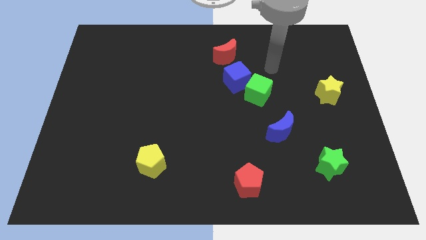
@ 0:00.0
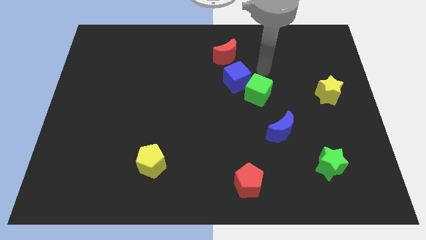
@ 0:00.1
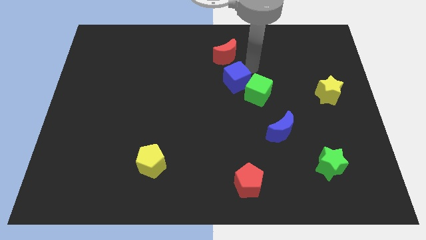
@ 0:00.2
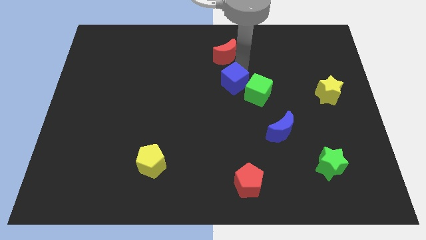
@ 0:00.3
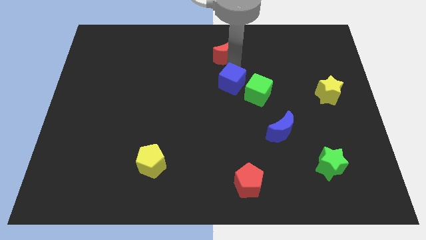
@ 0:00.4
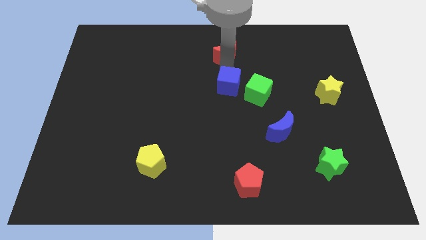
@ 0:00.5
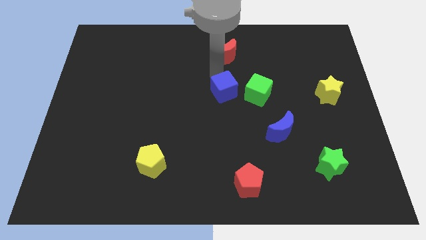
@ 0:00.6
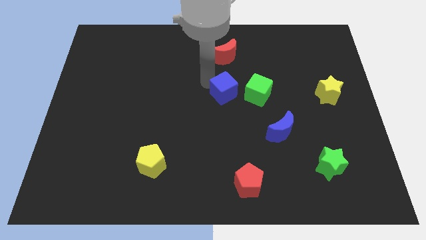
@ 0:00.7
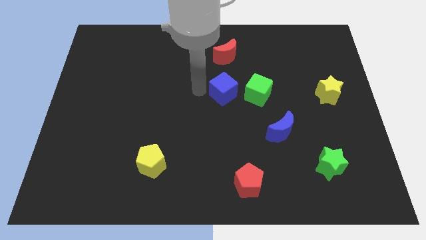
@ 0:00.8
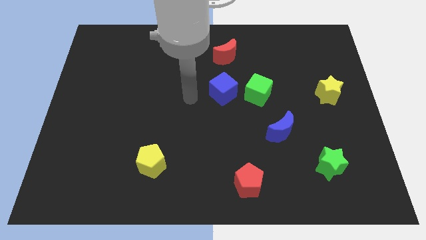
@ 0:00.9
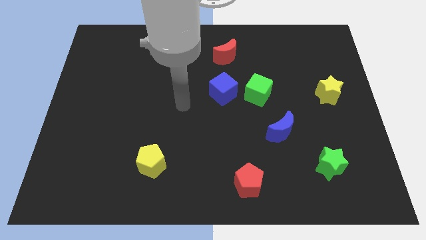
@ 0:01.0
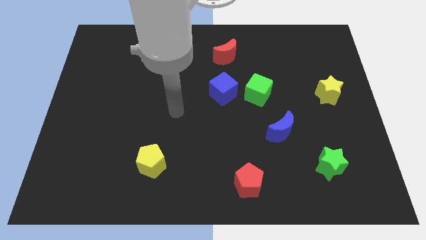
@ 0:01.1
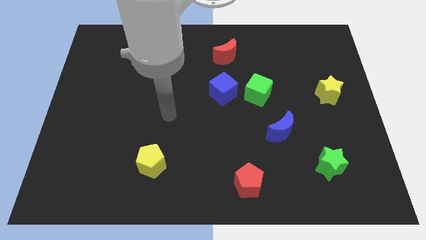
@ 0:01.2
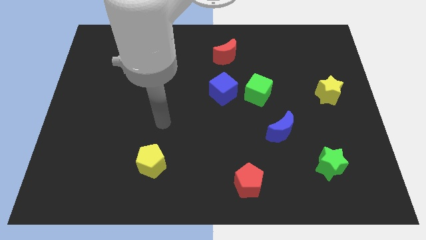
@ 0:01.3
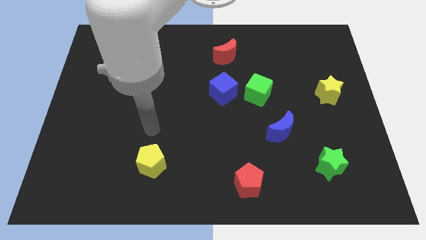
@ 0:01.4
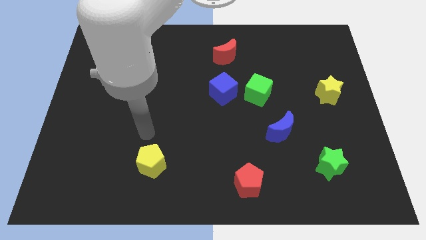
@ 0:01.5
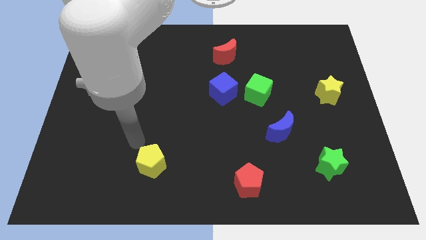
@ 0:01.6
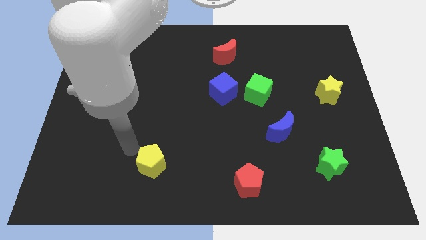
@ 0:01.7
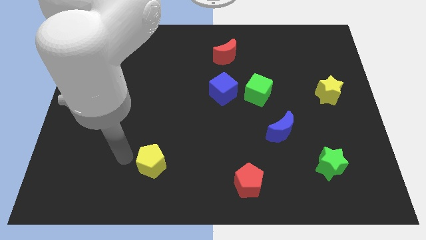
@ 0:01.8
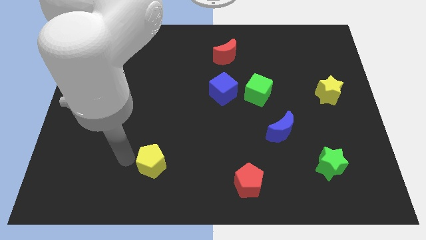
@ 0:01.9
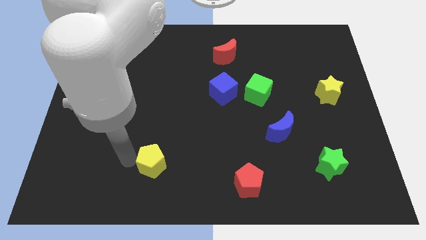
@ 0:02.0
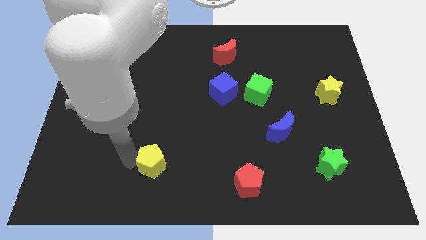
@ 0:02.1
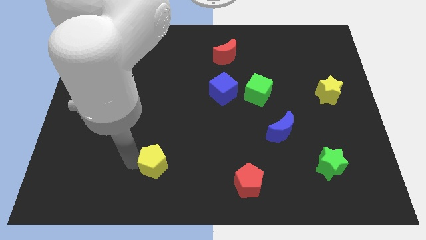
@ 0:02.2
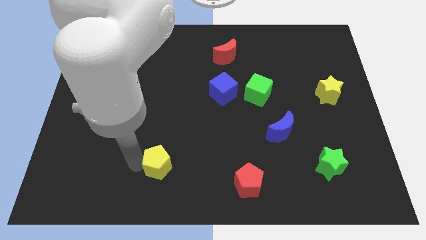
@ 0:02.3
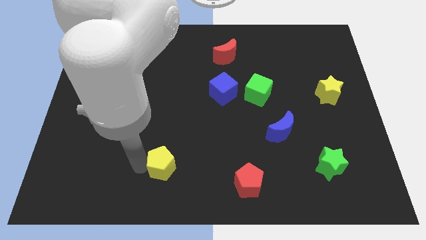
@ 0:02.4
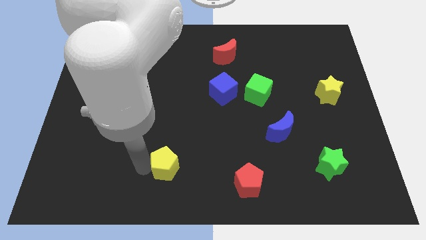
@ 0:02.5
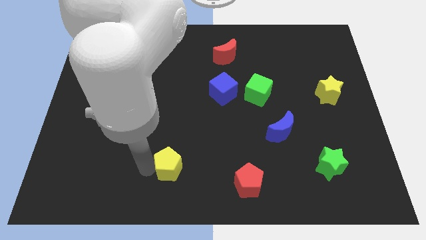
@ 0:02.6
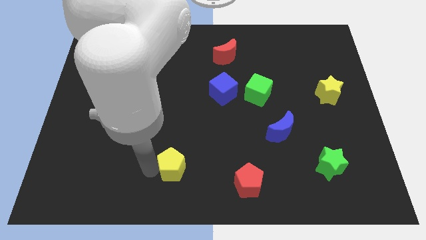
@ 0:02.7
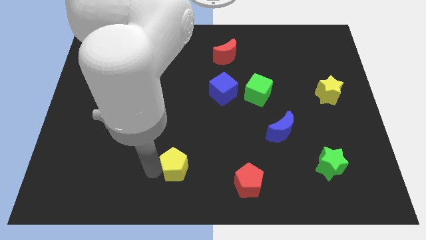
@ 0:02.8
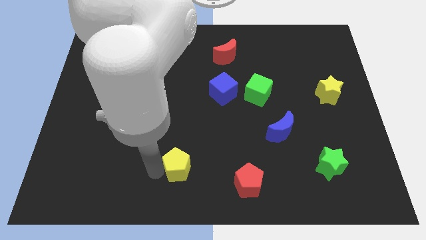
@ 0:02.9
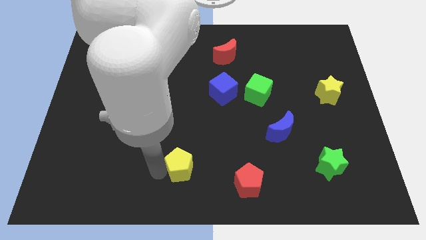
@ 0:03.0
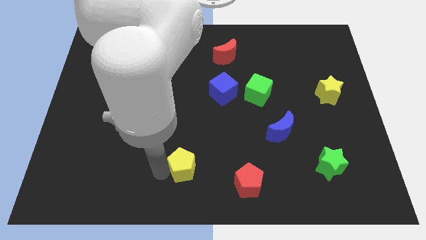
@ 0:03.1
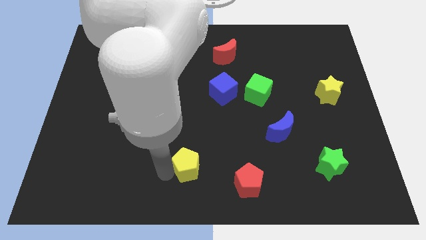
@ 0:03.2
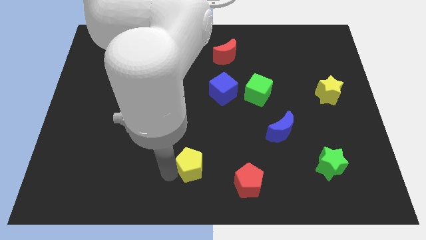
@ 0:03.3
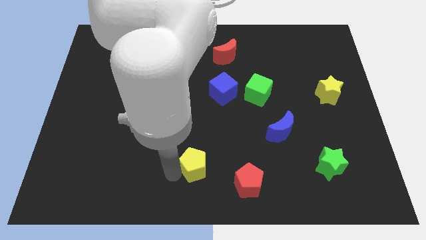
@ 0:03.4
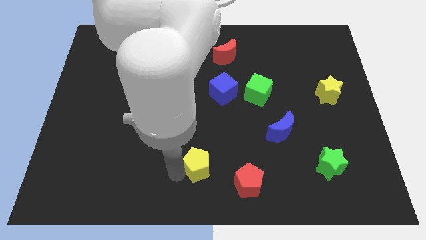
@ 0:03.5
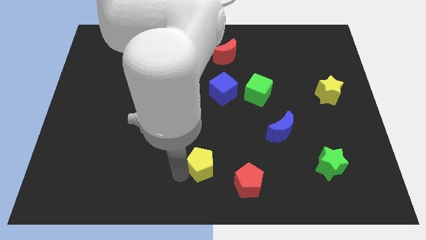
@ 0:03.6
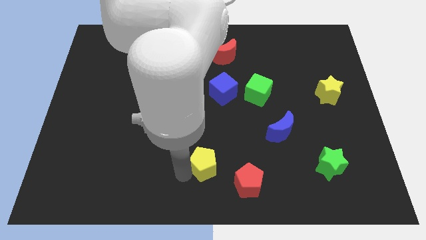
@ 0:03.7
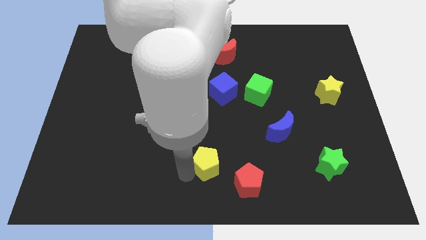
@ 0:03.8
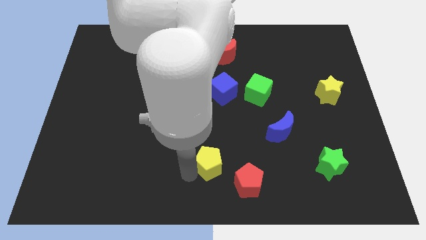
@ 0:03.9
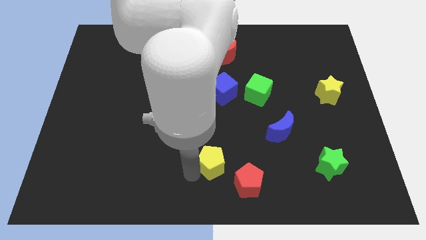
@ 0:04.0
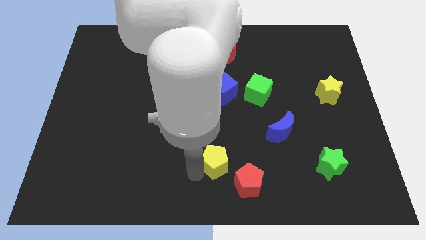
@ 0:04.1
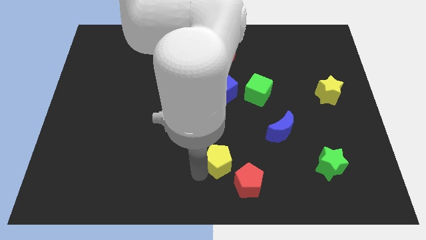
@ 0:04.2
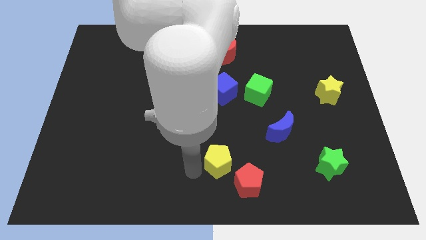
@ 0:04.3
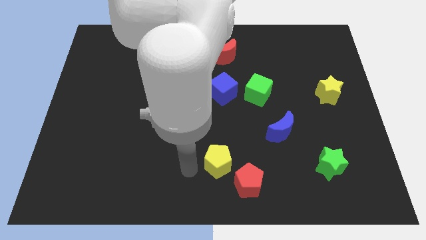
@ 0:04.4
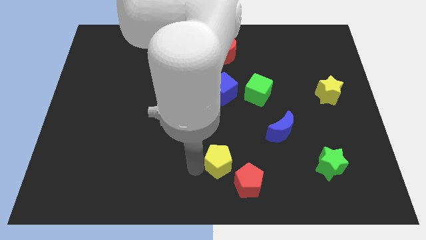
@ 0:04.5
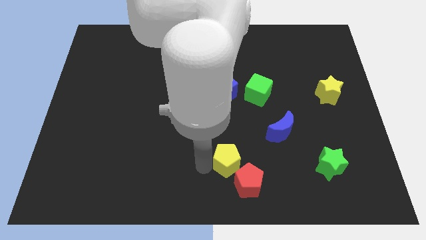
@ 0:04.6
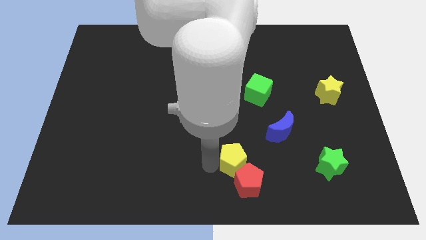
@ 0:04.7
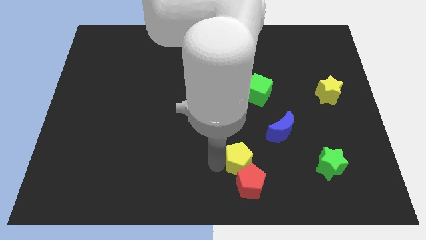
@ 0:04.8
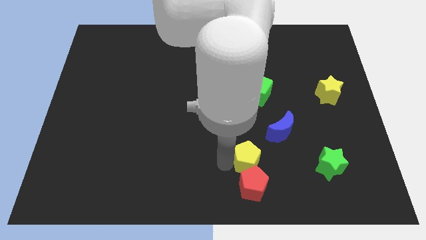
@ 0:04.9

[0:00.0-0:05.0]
move the yellow pentagon to the right

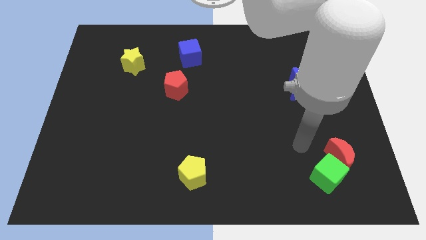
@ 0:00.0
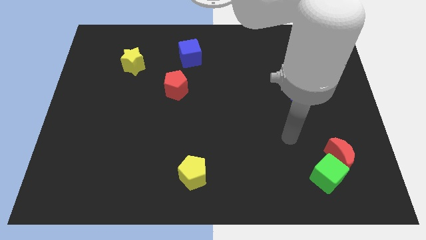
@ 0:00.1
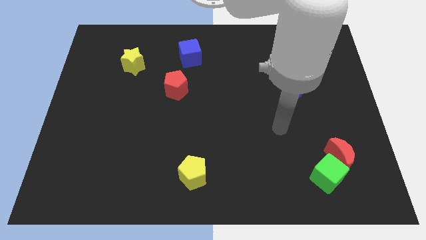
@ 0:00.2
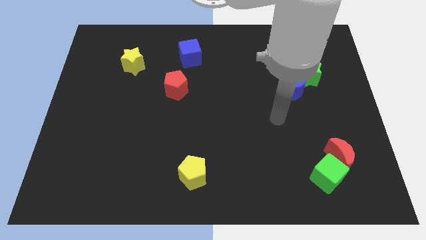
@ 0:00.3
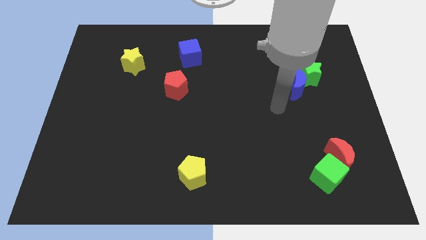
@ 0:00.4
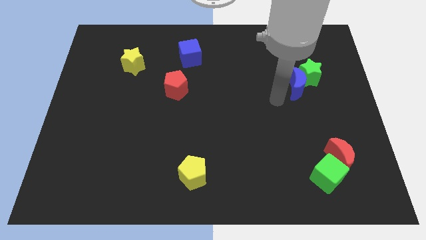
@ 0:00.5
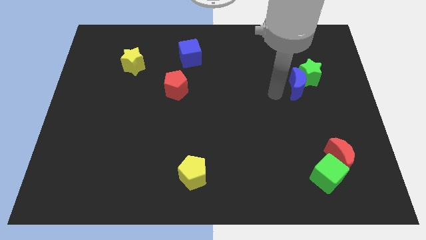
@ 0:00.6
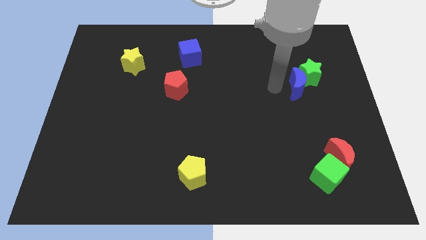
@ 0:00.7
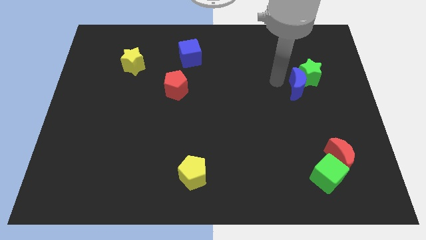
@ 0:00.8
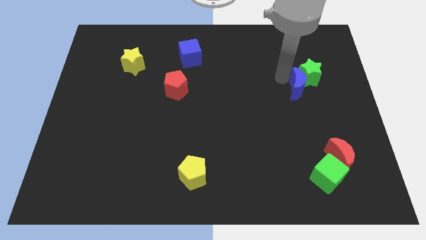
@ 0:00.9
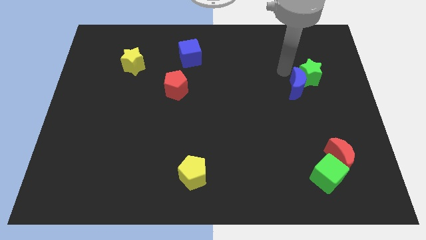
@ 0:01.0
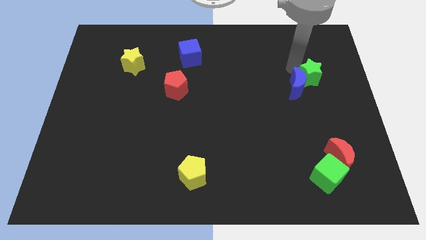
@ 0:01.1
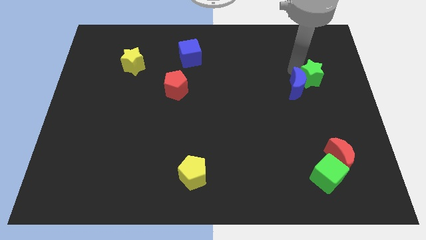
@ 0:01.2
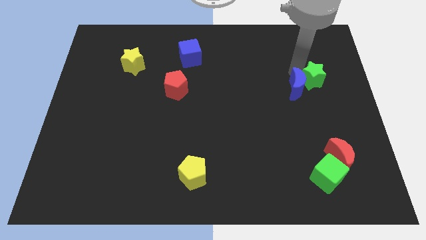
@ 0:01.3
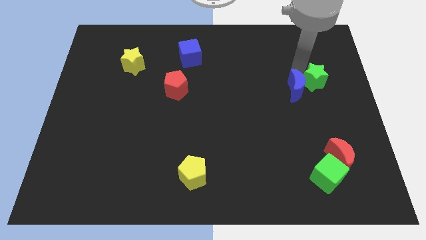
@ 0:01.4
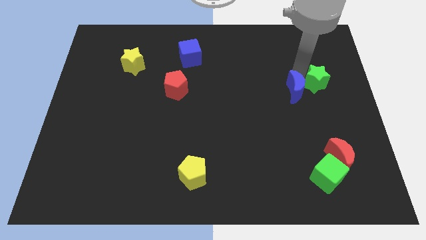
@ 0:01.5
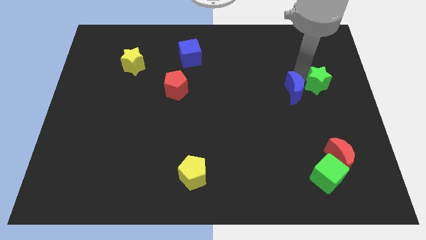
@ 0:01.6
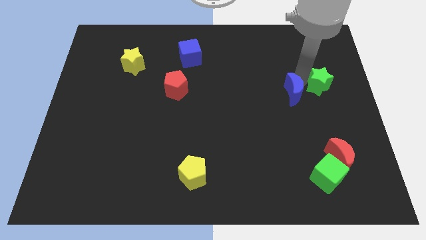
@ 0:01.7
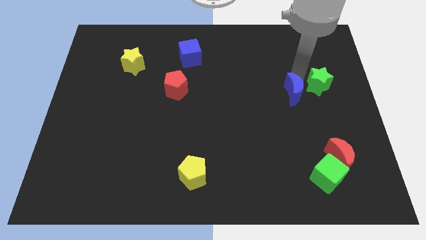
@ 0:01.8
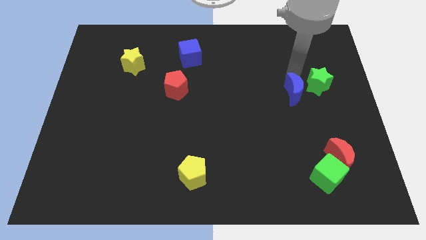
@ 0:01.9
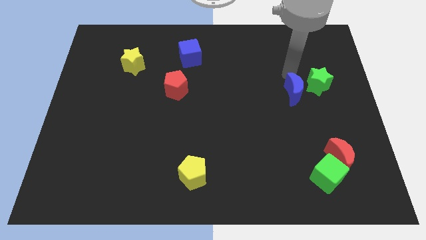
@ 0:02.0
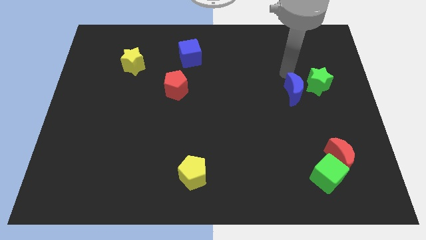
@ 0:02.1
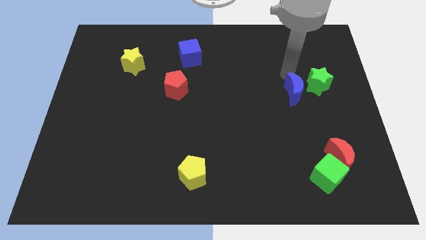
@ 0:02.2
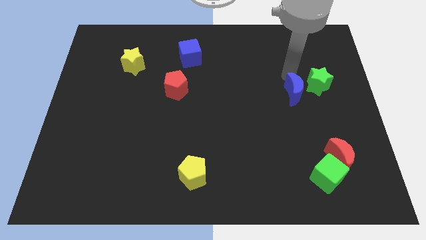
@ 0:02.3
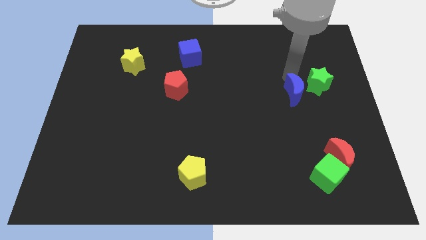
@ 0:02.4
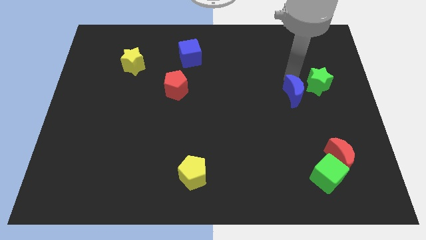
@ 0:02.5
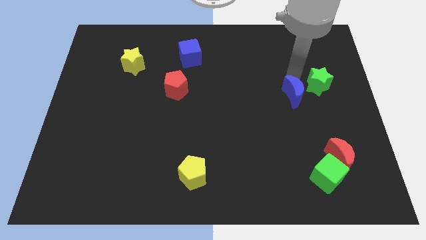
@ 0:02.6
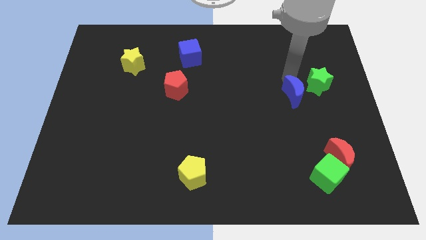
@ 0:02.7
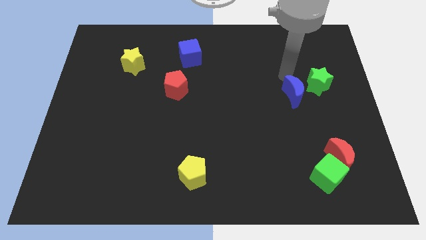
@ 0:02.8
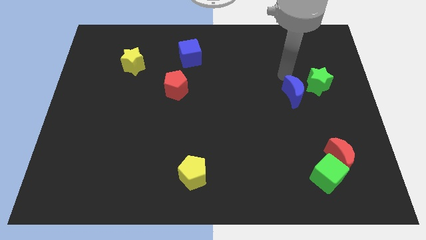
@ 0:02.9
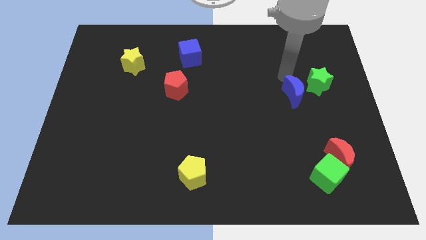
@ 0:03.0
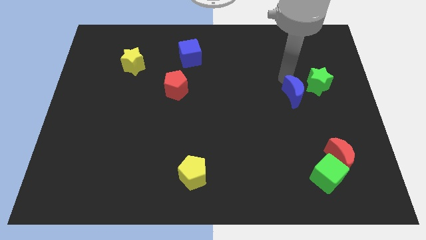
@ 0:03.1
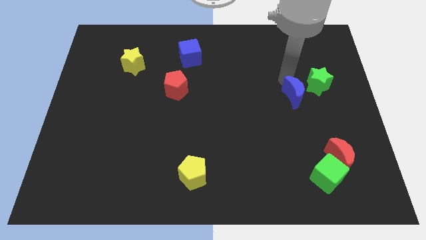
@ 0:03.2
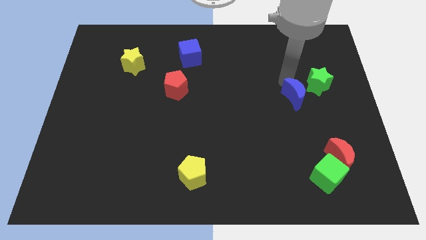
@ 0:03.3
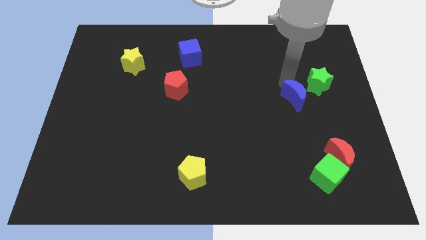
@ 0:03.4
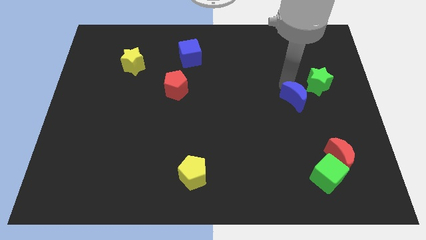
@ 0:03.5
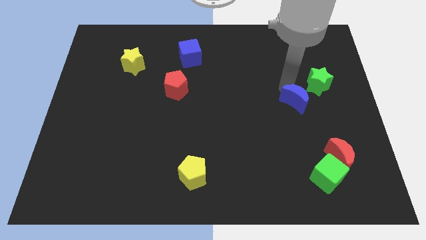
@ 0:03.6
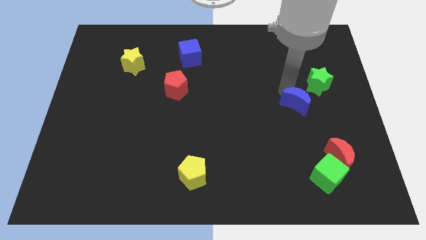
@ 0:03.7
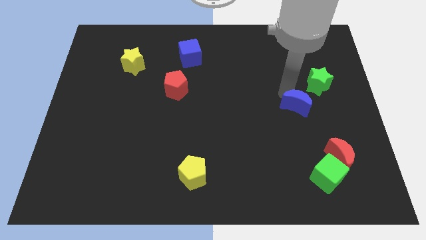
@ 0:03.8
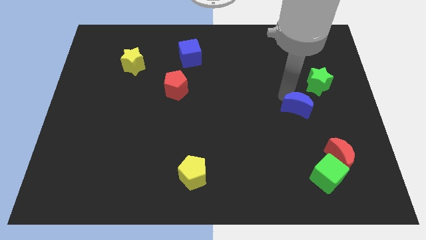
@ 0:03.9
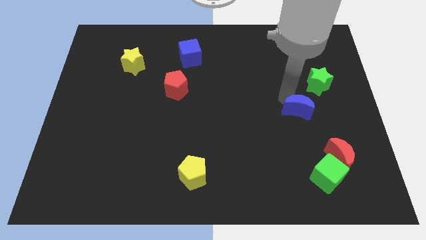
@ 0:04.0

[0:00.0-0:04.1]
push the blue moon down a bit
